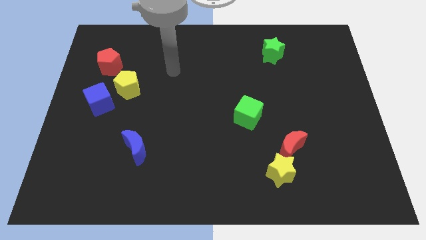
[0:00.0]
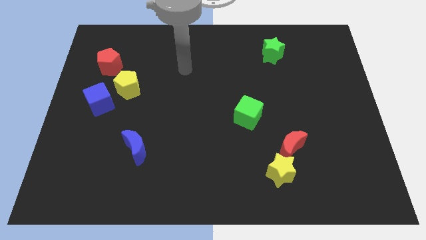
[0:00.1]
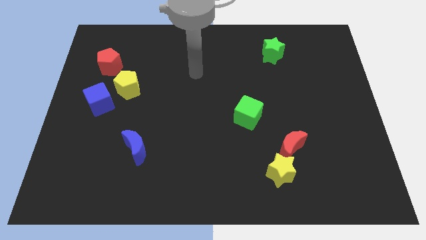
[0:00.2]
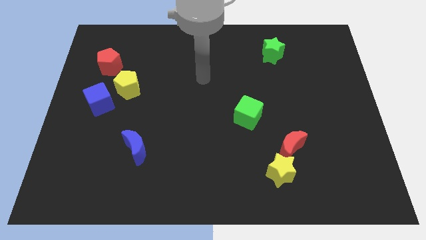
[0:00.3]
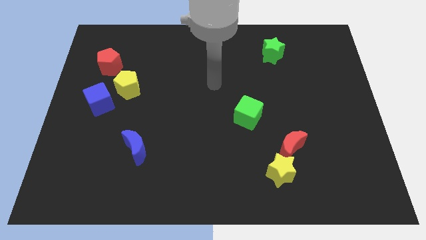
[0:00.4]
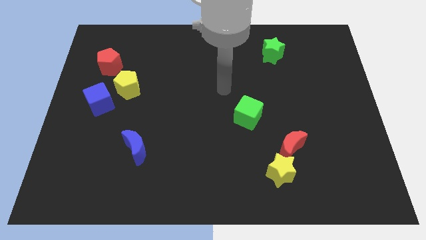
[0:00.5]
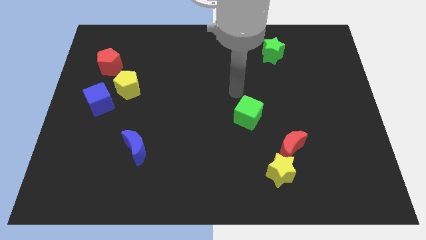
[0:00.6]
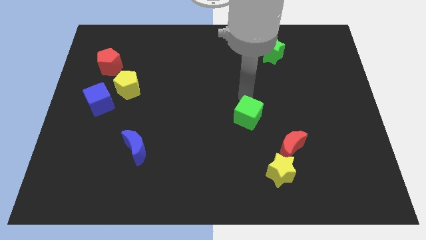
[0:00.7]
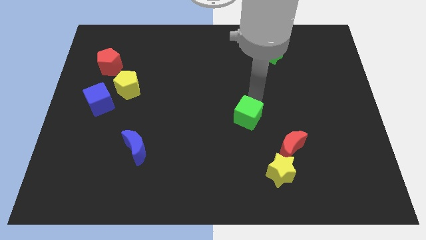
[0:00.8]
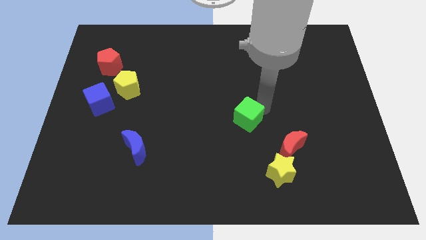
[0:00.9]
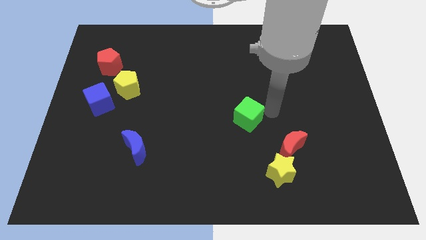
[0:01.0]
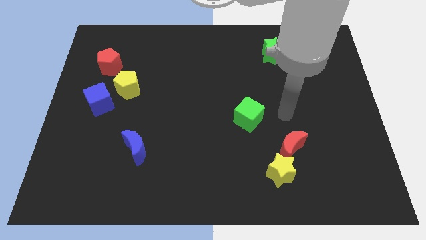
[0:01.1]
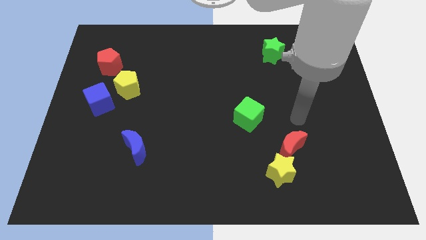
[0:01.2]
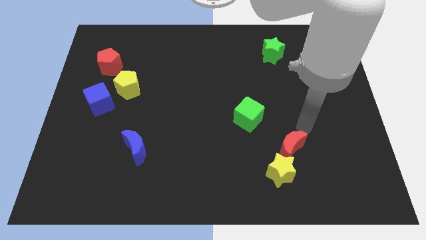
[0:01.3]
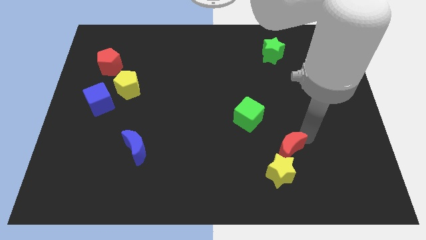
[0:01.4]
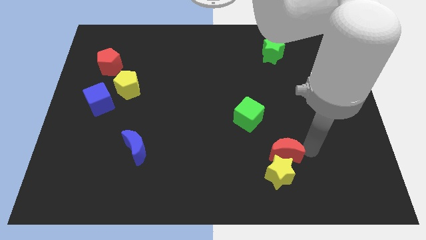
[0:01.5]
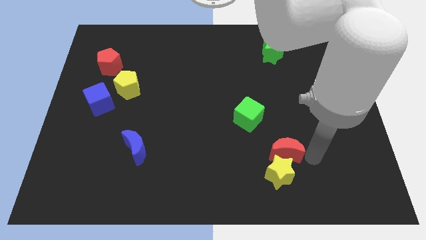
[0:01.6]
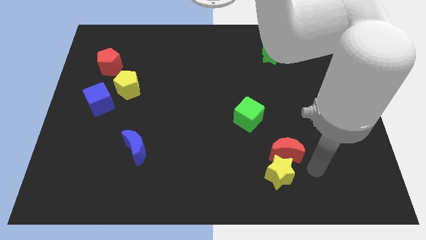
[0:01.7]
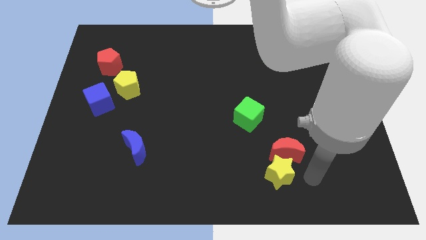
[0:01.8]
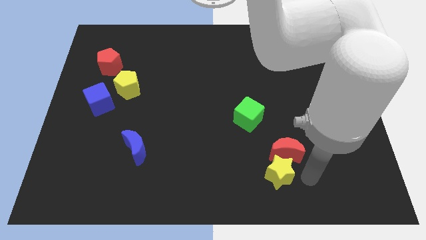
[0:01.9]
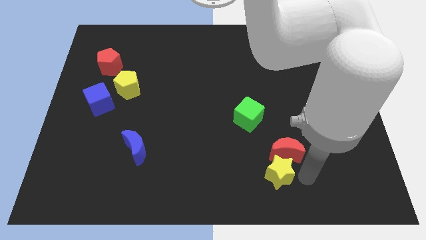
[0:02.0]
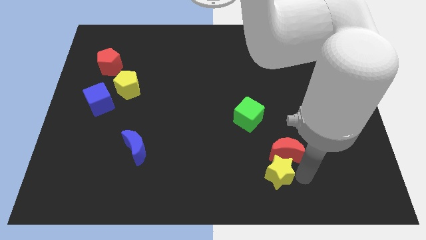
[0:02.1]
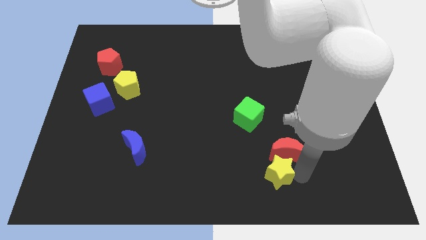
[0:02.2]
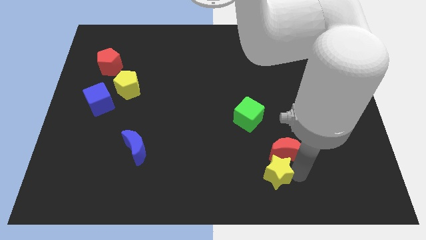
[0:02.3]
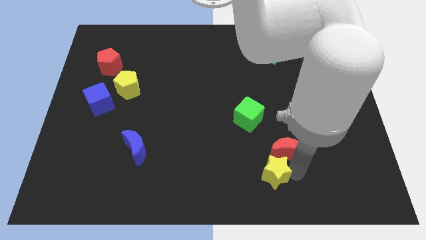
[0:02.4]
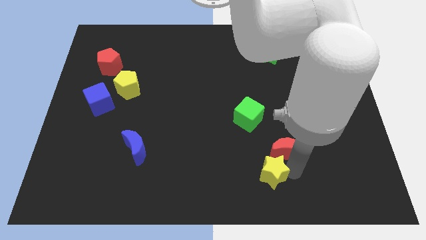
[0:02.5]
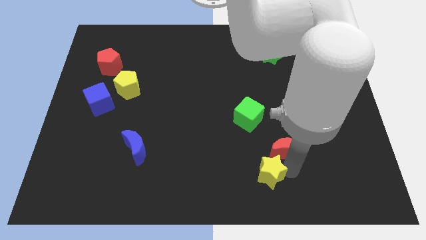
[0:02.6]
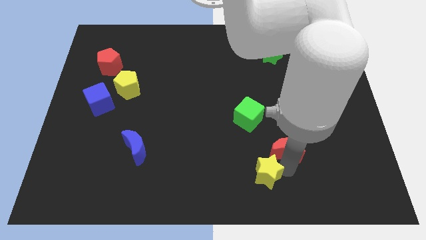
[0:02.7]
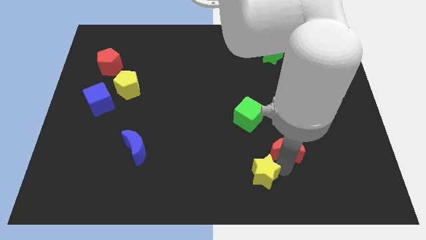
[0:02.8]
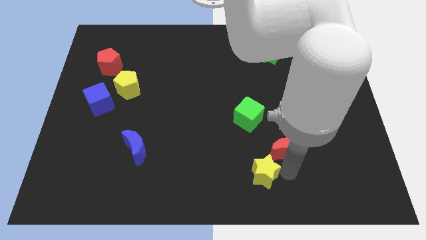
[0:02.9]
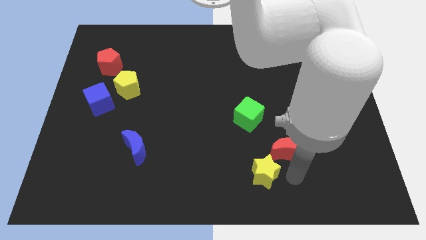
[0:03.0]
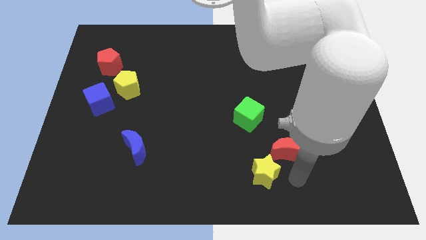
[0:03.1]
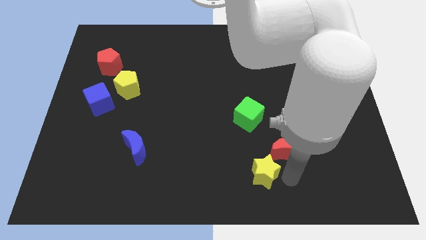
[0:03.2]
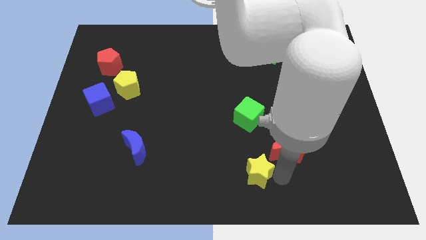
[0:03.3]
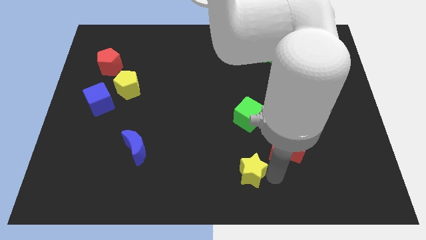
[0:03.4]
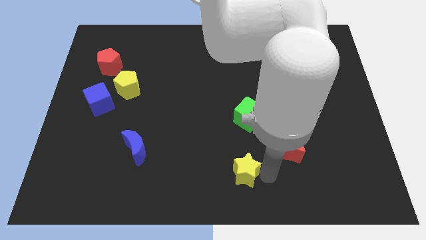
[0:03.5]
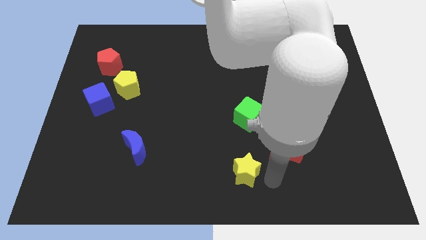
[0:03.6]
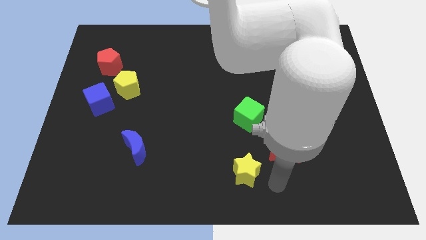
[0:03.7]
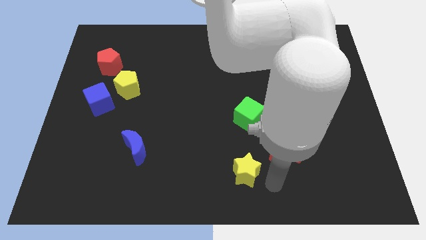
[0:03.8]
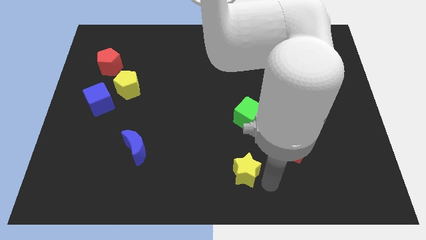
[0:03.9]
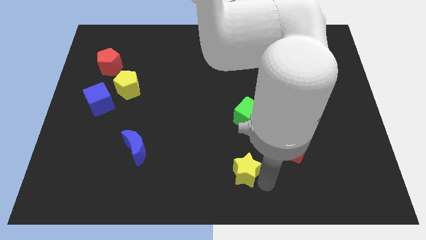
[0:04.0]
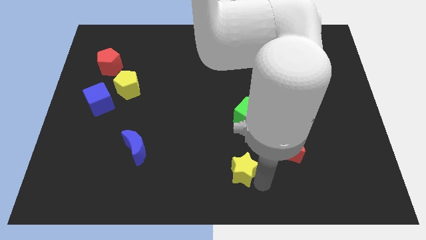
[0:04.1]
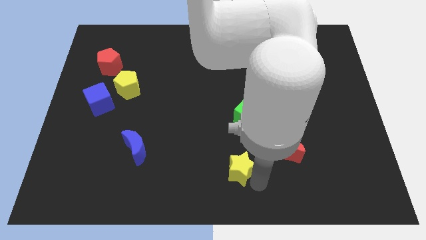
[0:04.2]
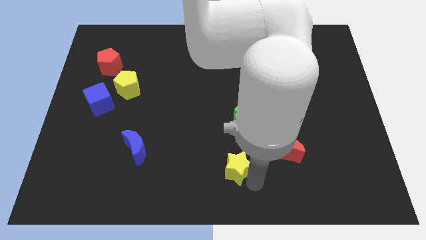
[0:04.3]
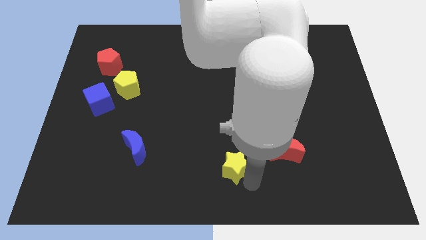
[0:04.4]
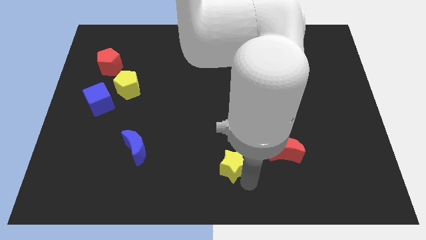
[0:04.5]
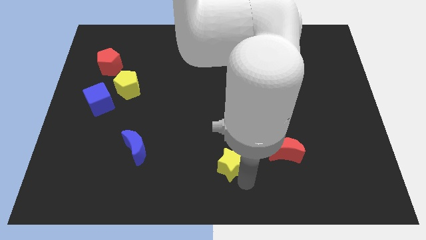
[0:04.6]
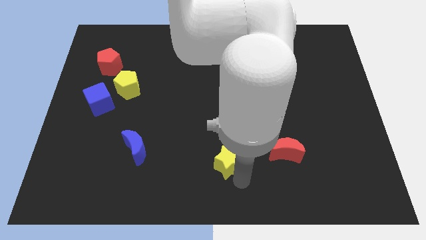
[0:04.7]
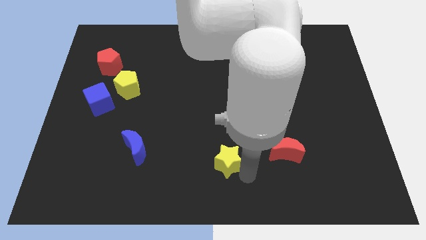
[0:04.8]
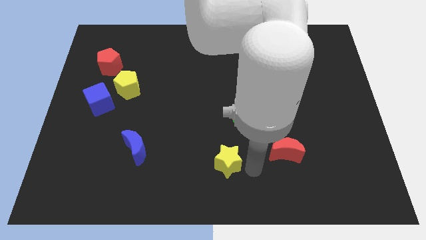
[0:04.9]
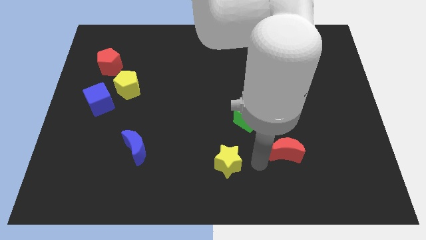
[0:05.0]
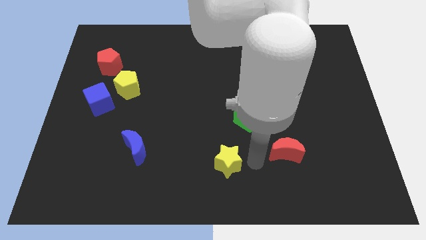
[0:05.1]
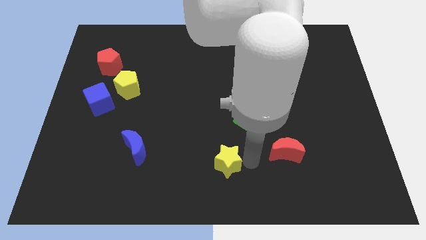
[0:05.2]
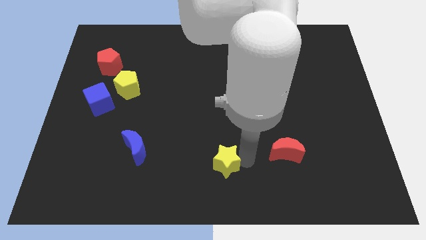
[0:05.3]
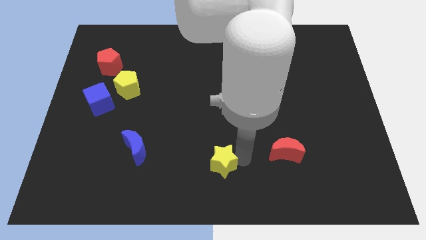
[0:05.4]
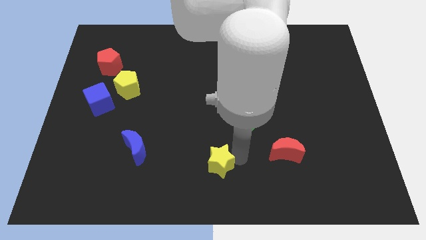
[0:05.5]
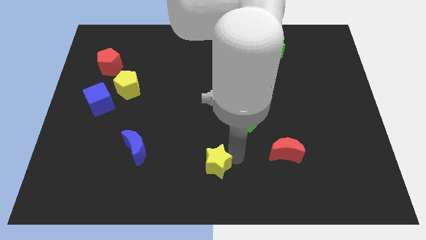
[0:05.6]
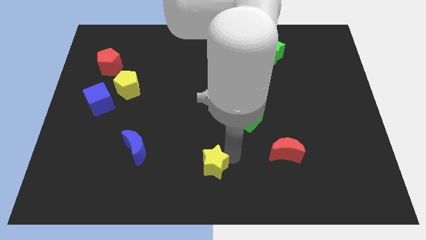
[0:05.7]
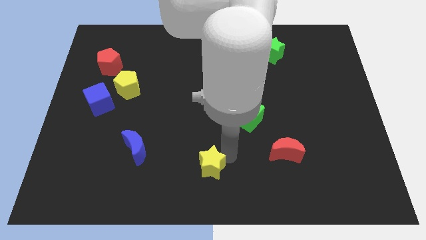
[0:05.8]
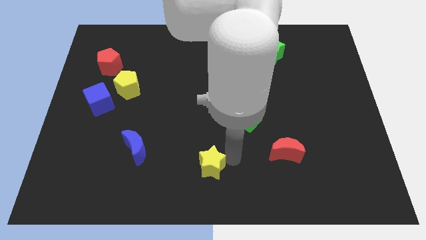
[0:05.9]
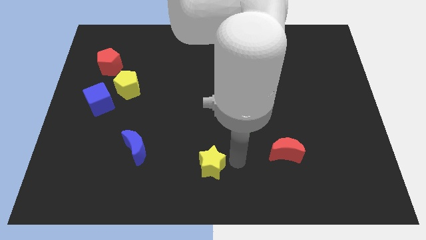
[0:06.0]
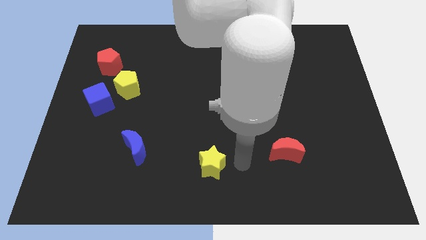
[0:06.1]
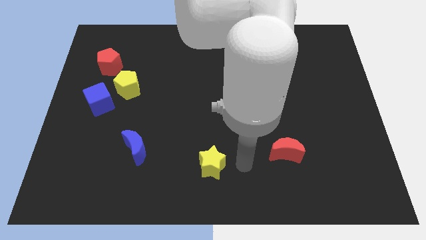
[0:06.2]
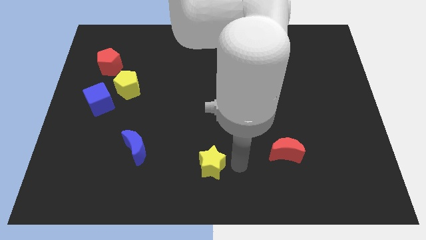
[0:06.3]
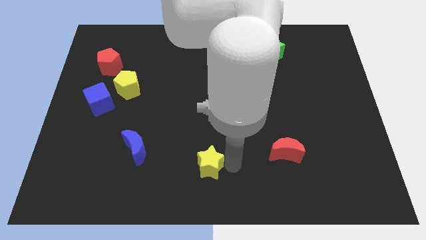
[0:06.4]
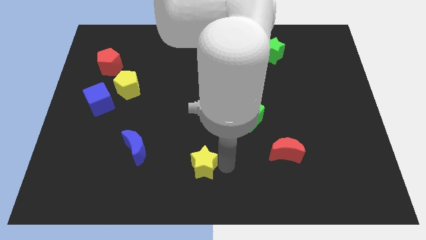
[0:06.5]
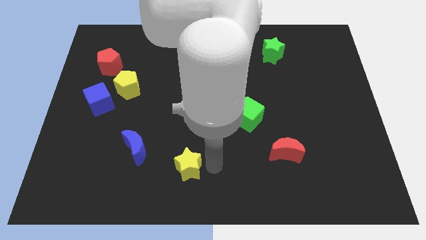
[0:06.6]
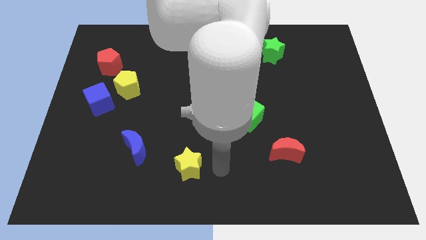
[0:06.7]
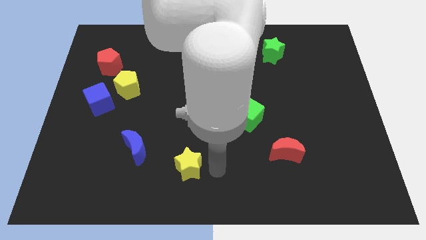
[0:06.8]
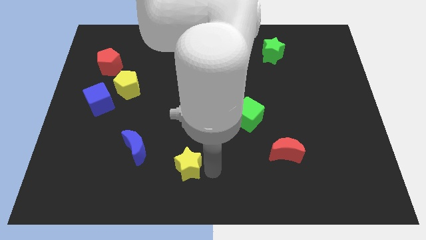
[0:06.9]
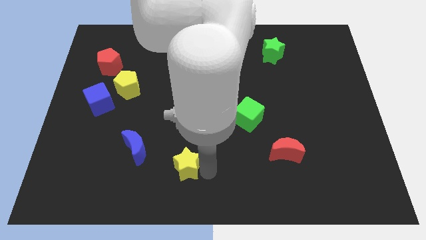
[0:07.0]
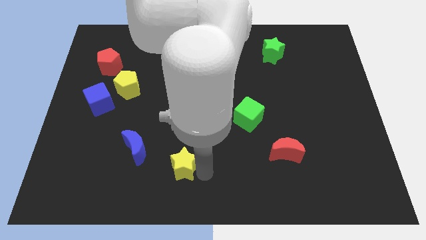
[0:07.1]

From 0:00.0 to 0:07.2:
slide the yellow star left

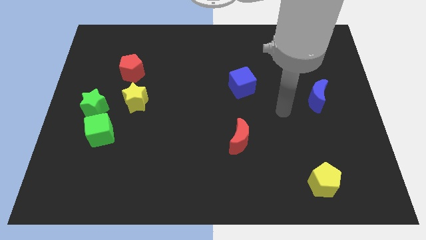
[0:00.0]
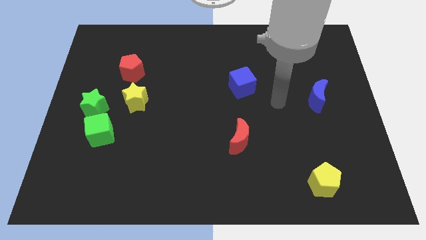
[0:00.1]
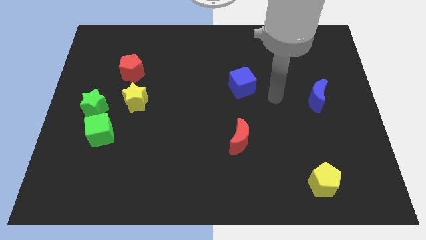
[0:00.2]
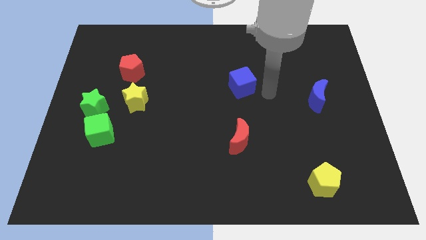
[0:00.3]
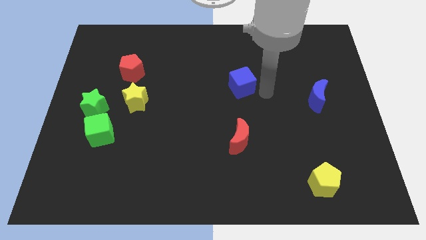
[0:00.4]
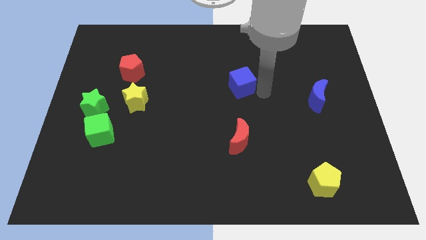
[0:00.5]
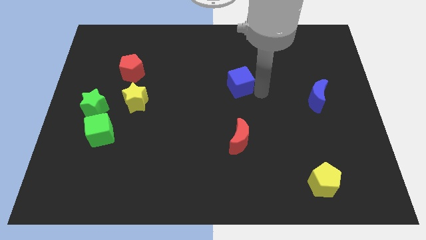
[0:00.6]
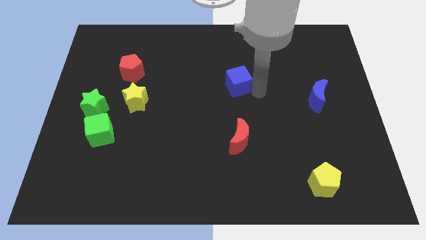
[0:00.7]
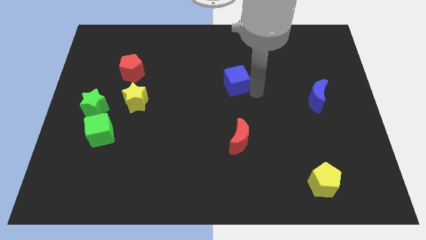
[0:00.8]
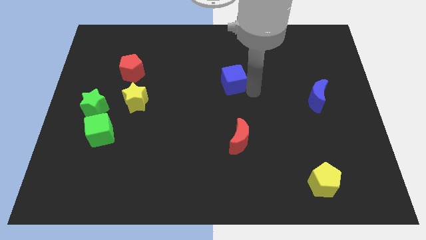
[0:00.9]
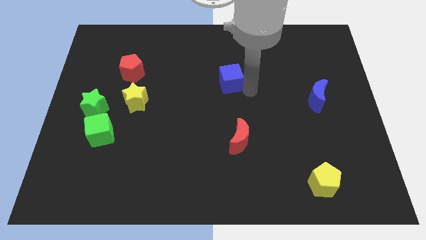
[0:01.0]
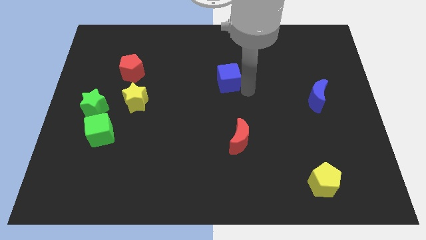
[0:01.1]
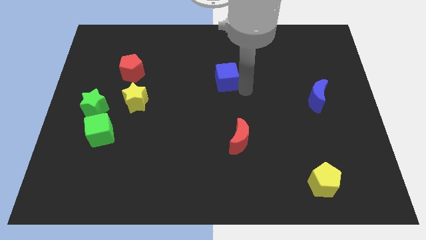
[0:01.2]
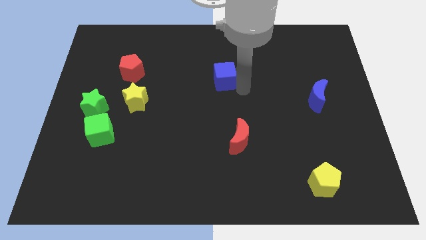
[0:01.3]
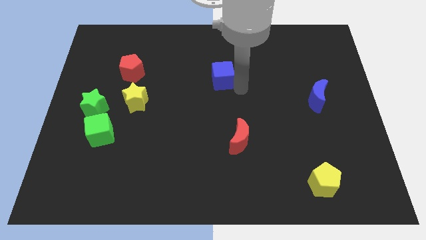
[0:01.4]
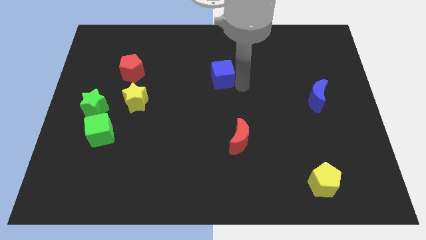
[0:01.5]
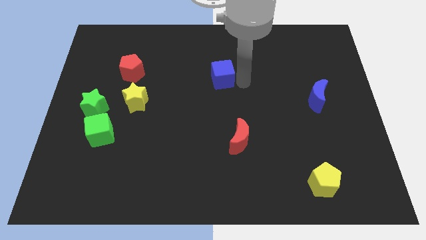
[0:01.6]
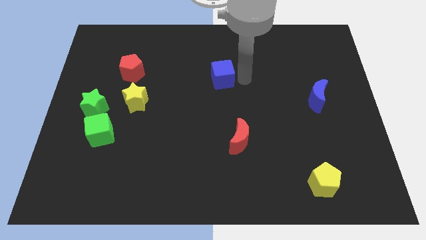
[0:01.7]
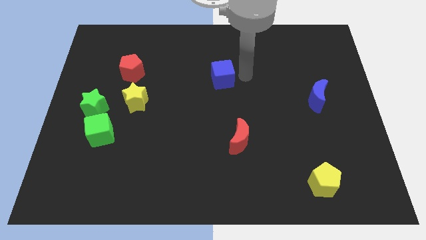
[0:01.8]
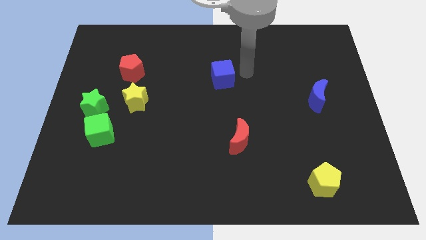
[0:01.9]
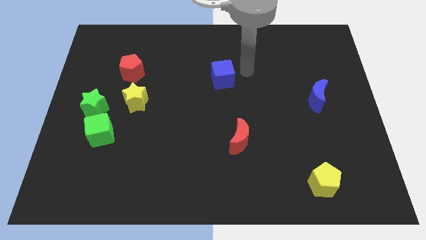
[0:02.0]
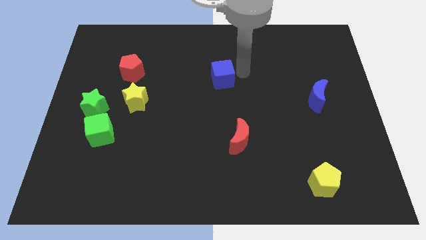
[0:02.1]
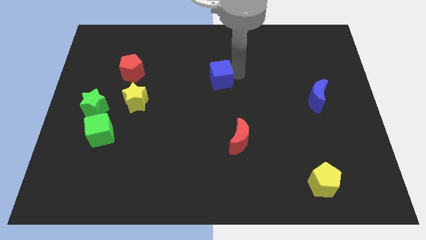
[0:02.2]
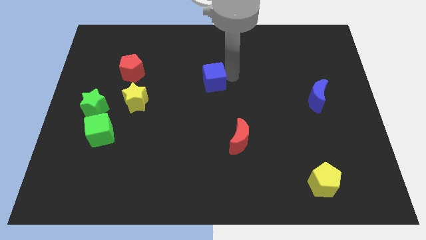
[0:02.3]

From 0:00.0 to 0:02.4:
slightly push the blue cube left
